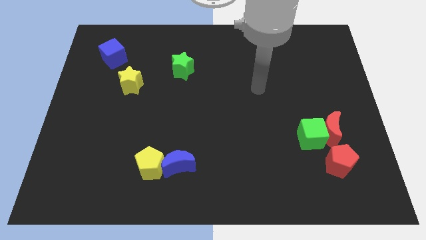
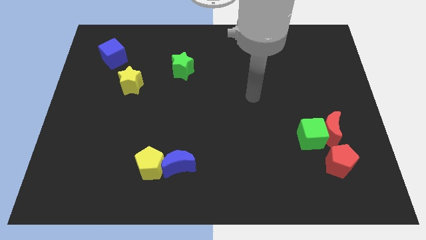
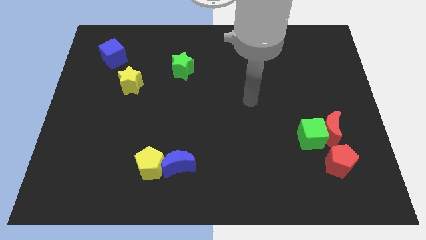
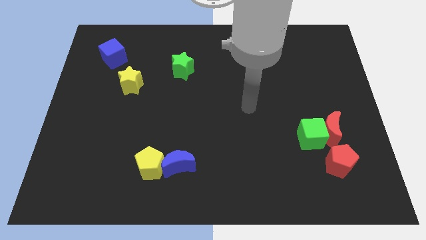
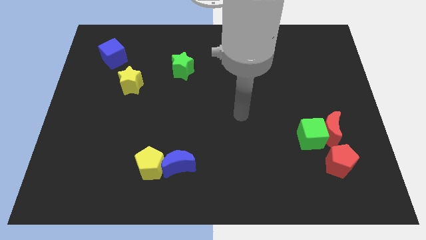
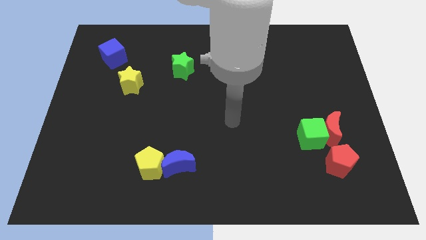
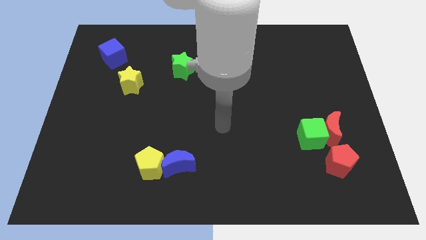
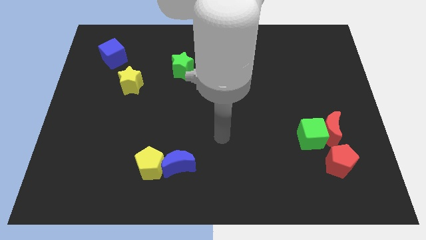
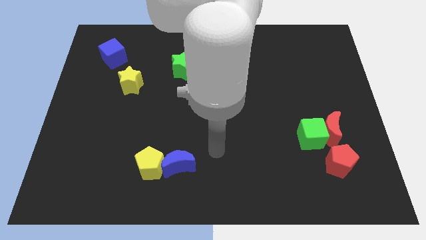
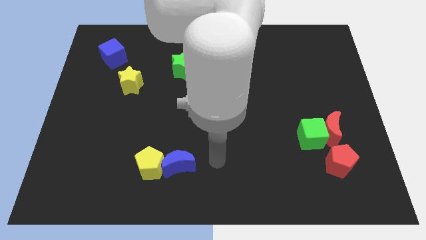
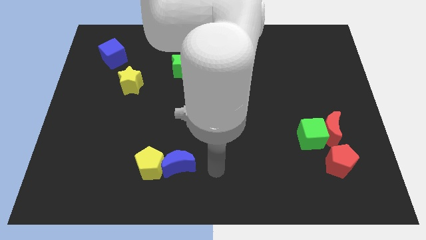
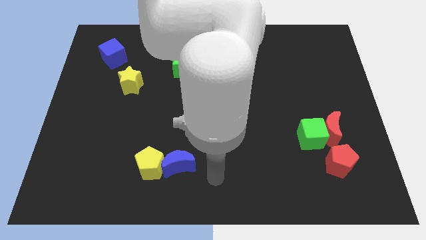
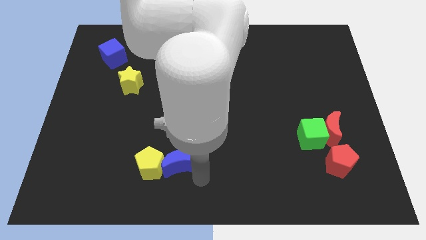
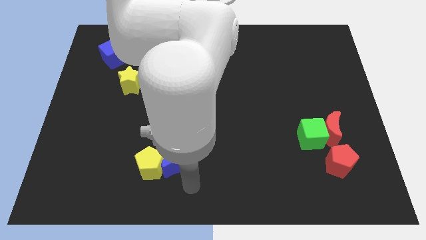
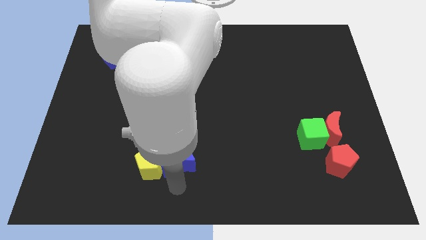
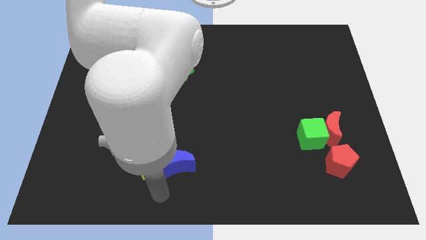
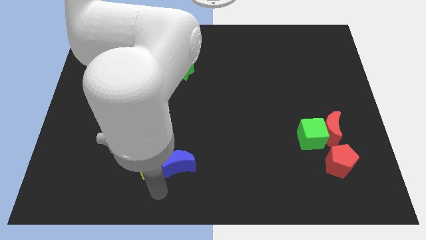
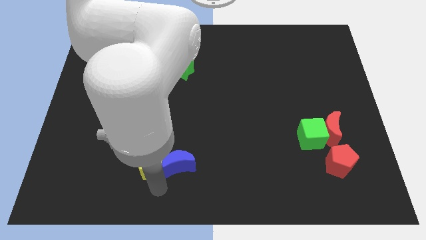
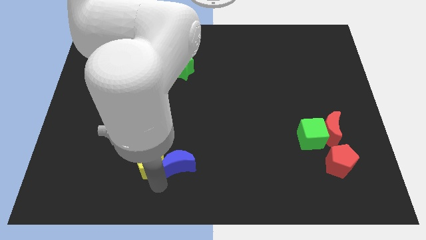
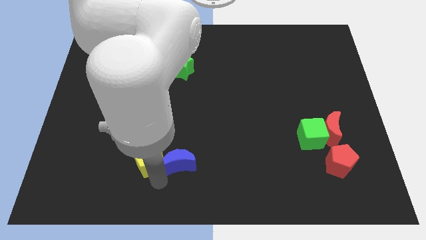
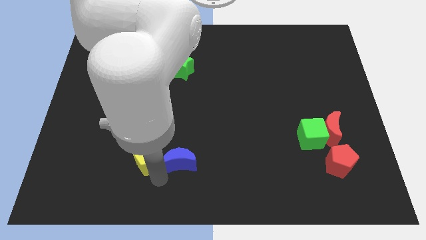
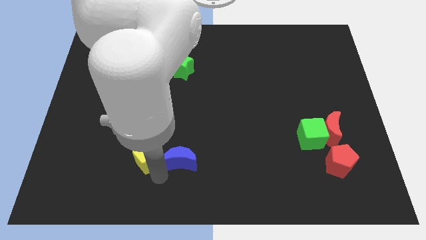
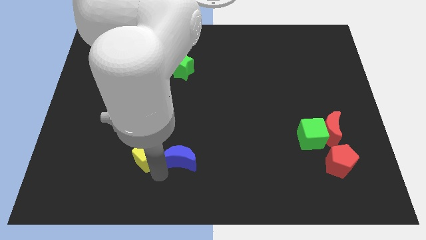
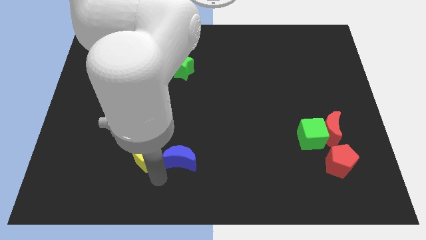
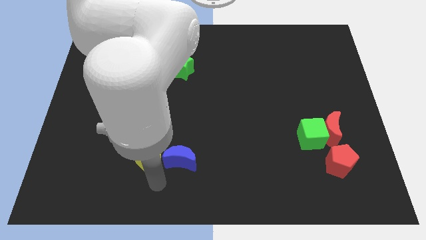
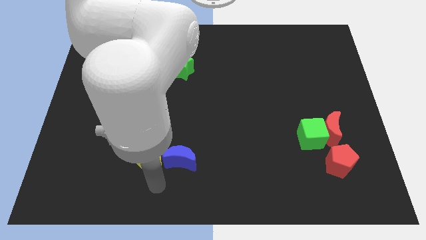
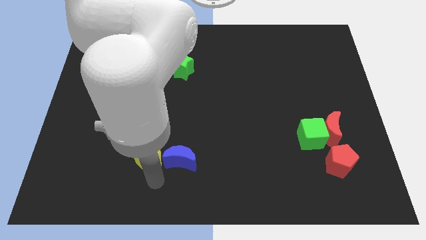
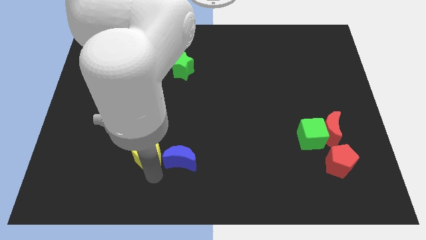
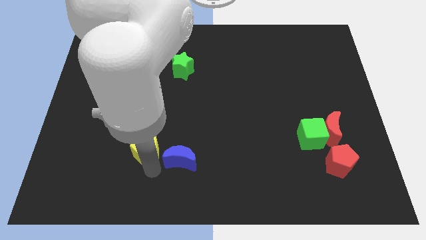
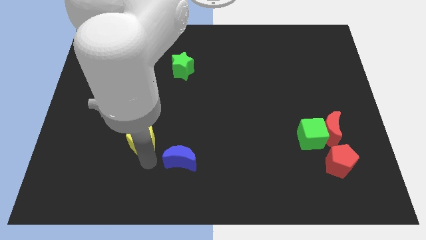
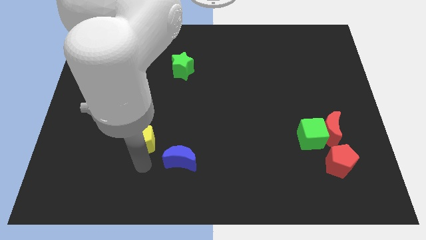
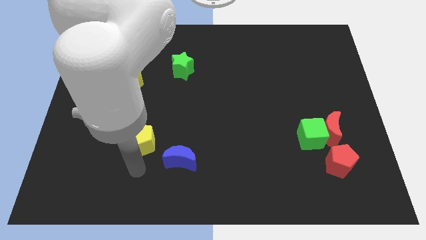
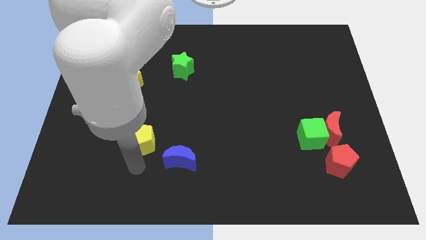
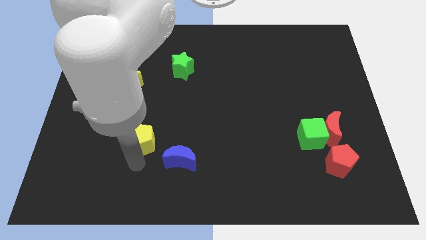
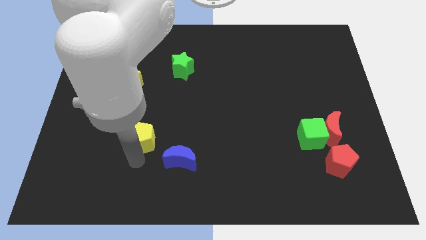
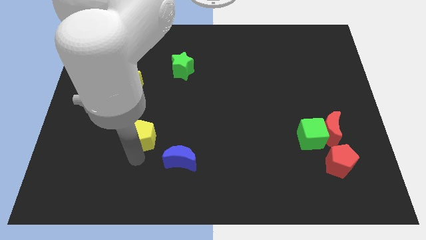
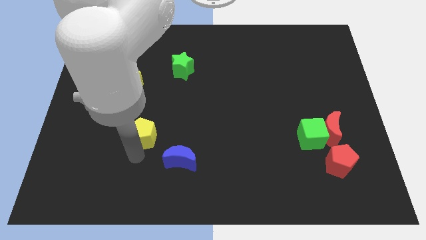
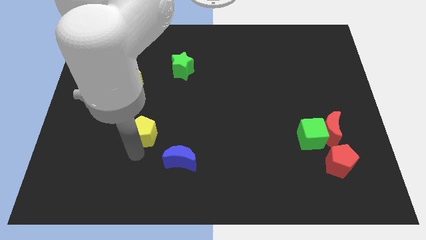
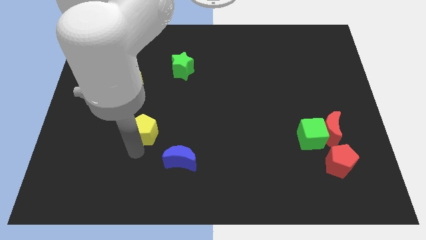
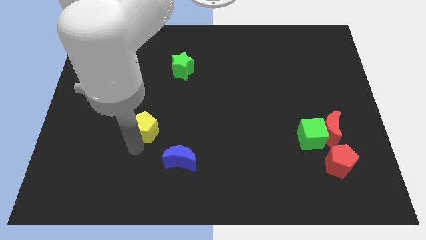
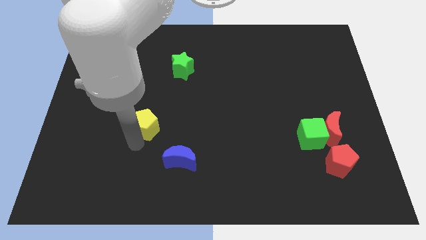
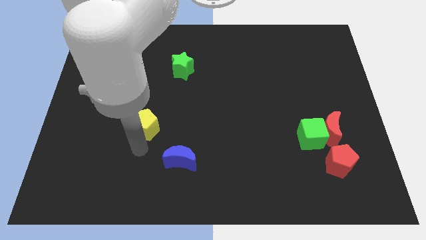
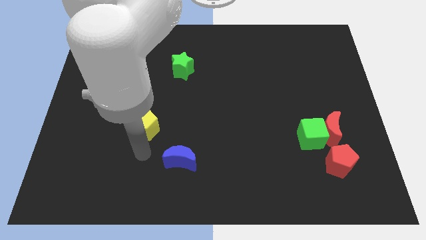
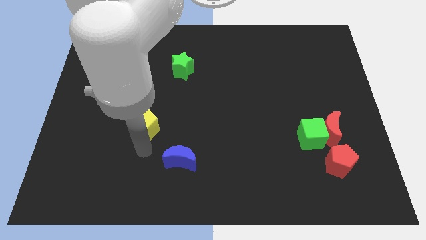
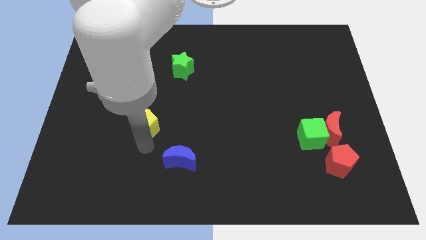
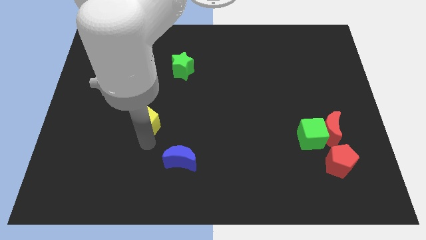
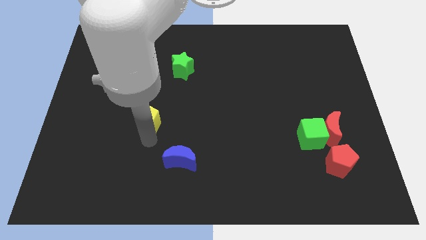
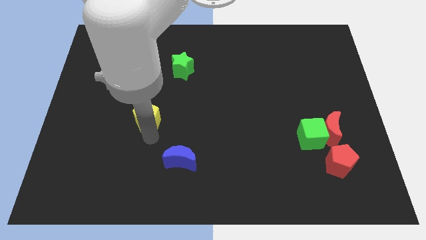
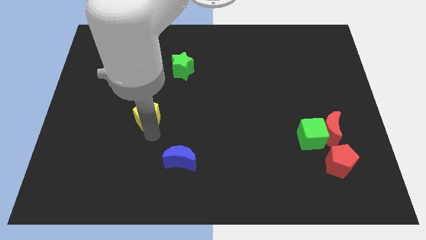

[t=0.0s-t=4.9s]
put the yellow pentagon to the bottom right of the yellow star

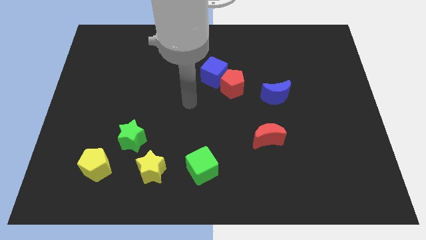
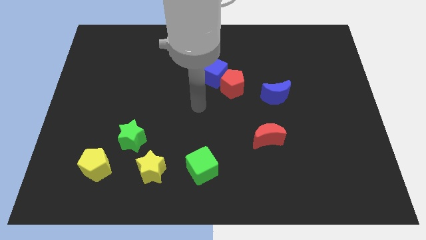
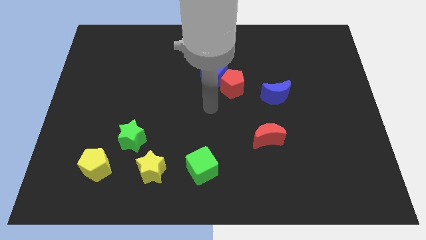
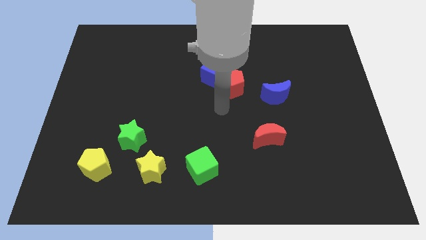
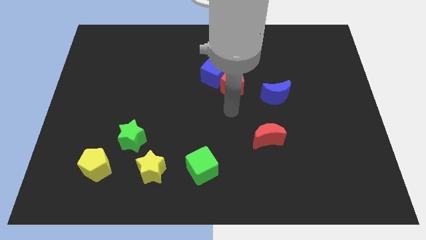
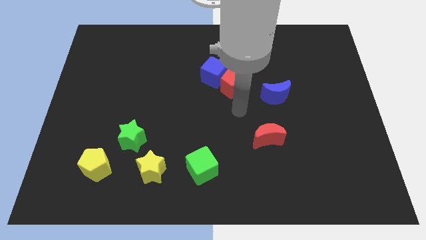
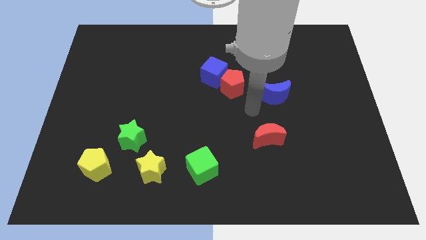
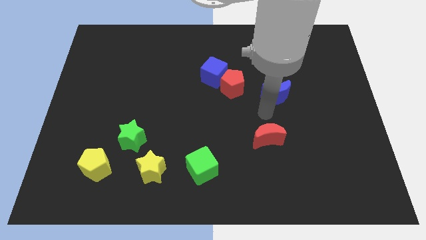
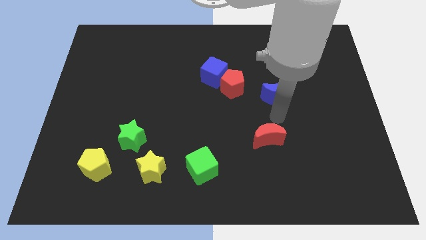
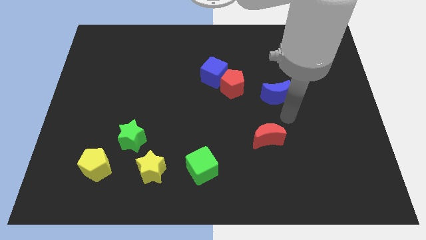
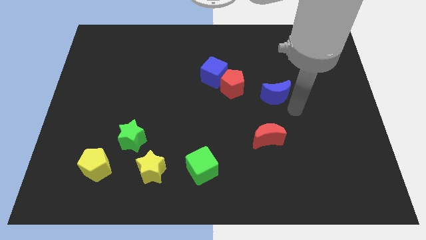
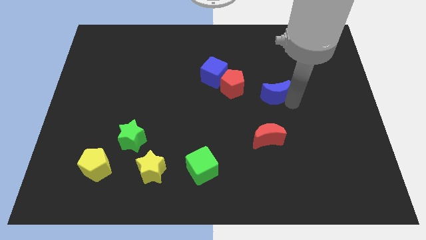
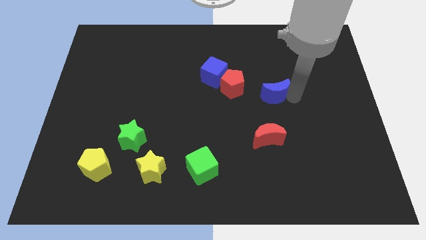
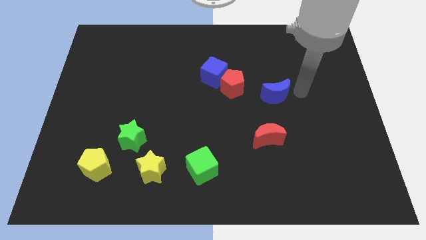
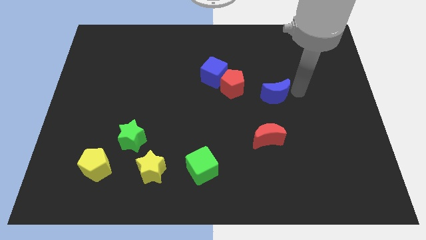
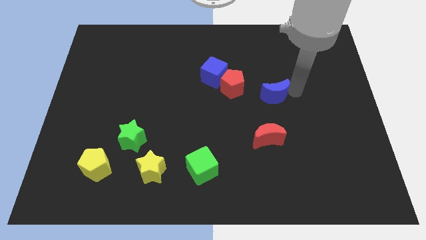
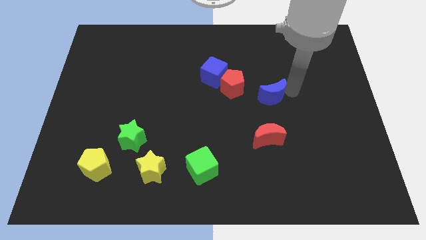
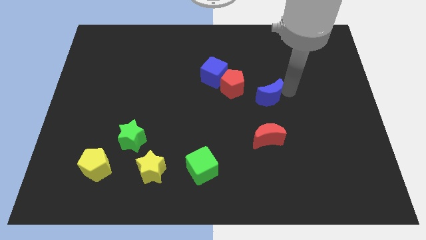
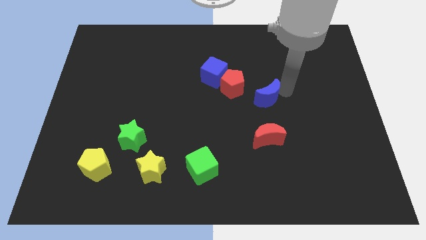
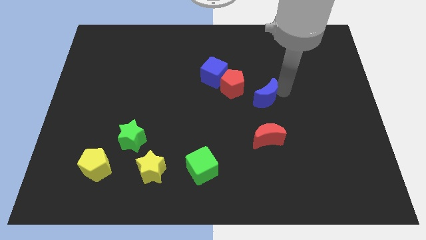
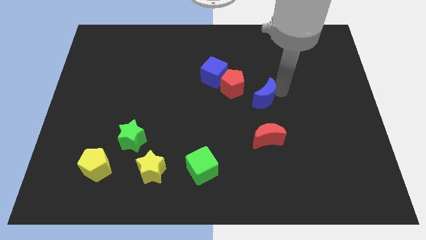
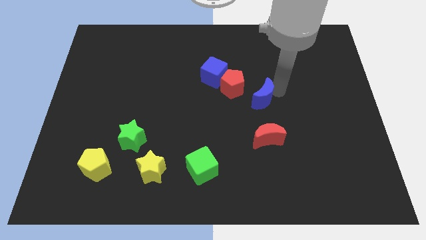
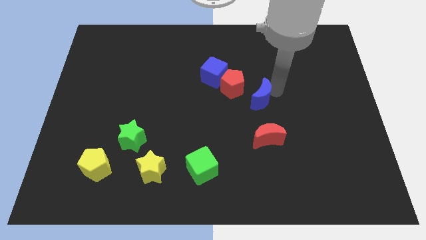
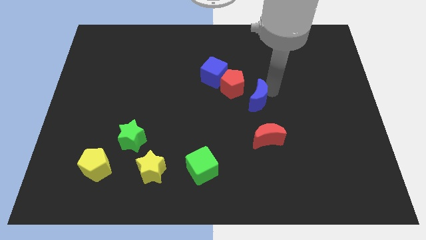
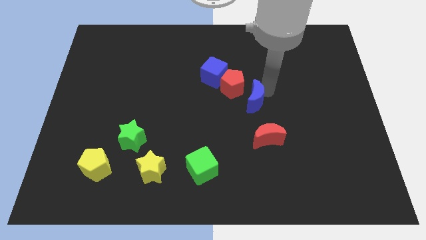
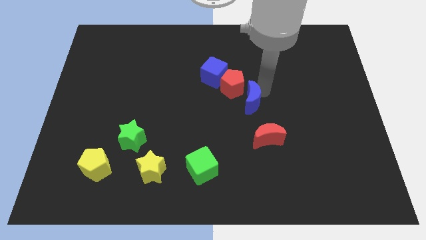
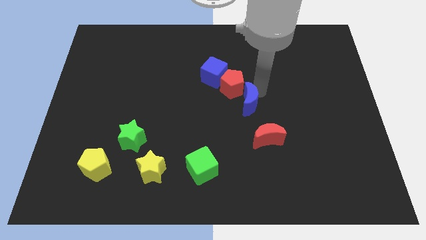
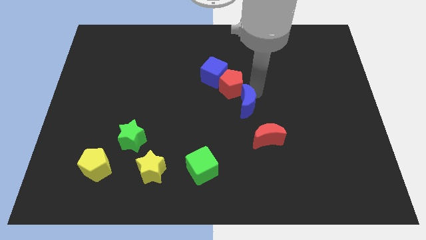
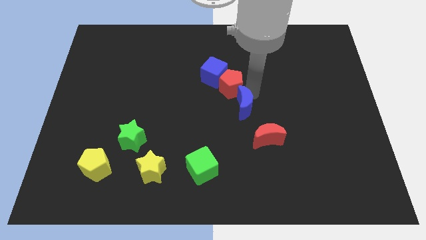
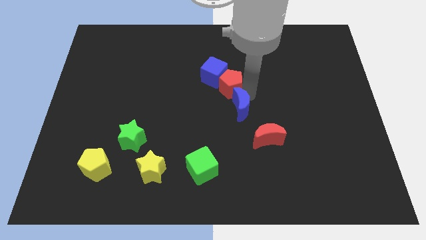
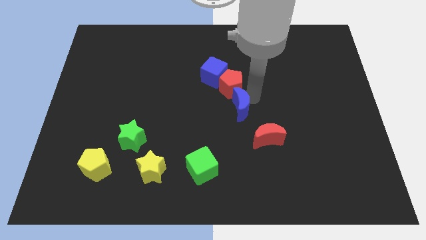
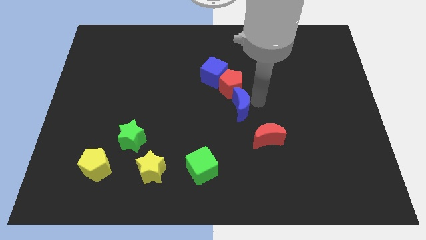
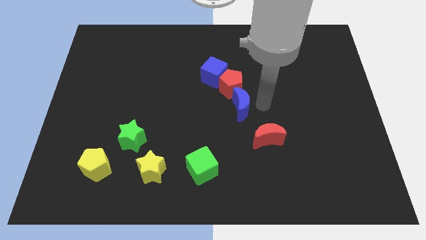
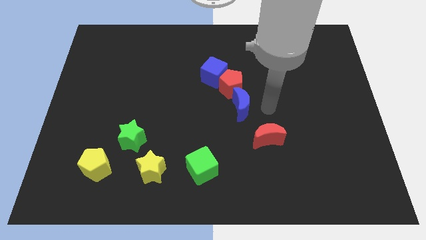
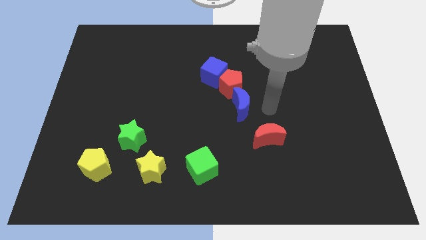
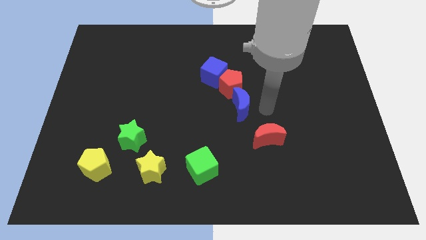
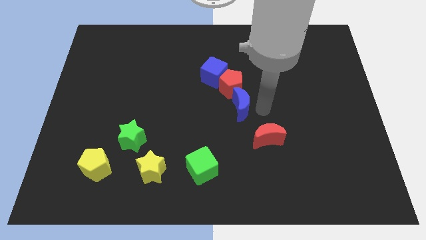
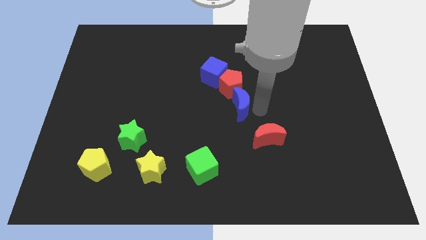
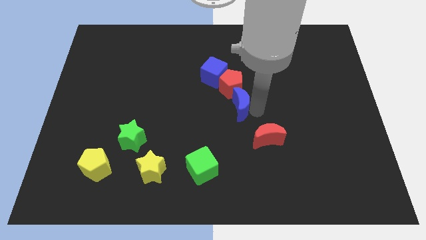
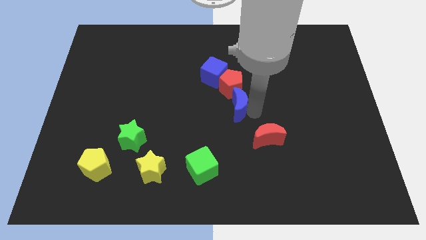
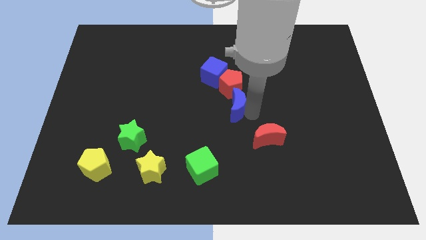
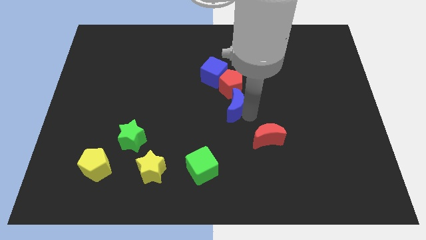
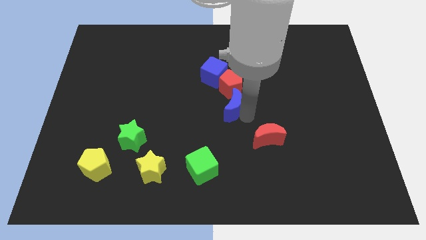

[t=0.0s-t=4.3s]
move the blue moon to the bottom left side of the red pentagon
